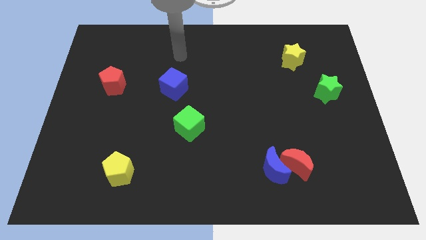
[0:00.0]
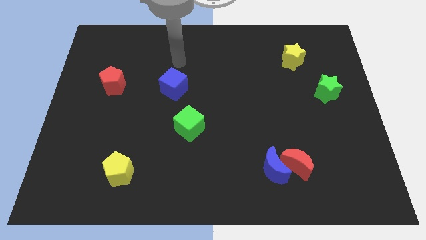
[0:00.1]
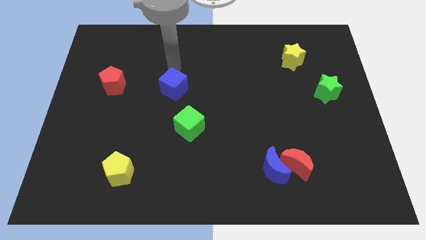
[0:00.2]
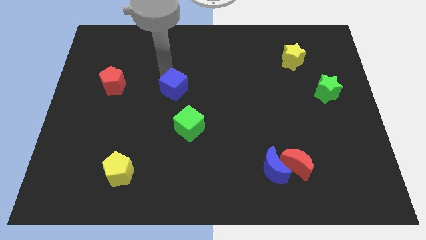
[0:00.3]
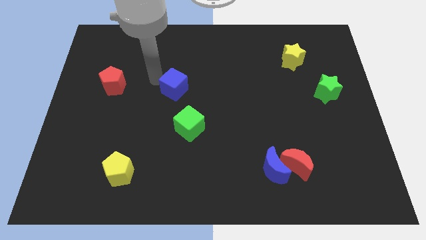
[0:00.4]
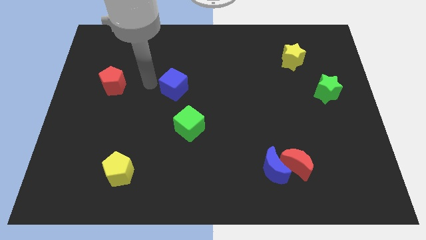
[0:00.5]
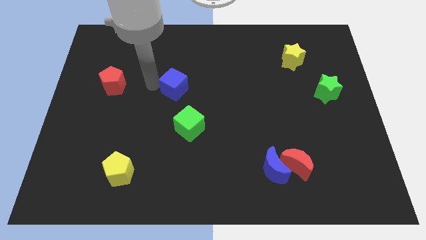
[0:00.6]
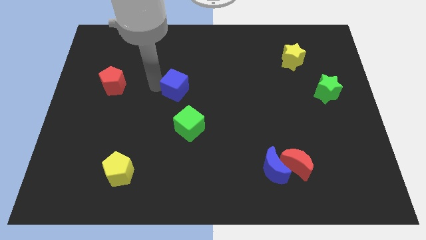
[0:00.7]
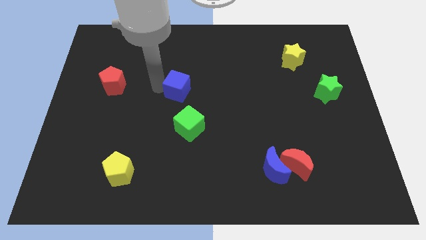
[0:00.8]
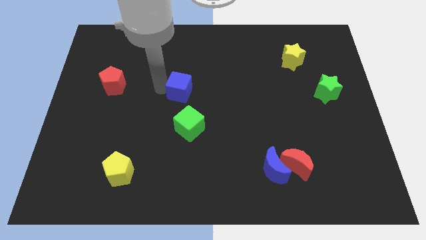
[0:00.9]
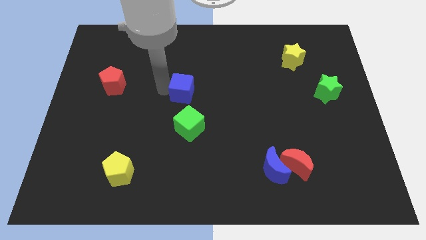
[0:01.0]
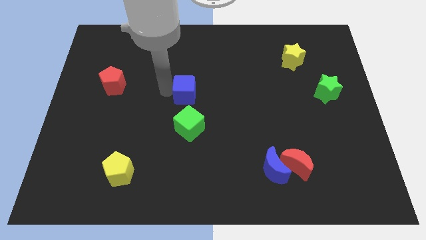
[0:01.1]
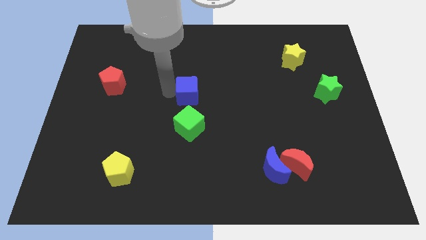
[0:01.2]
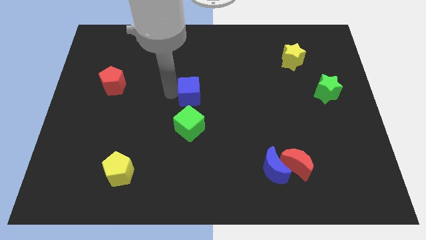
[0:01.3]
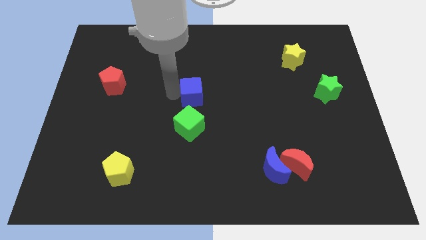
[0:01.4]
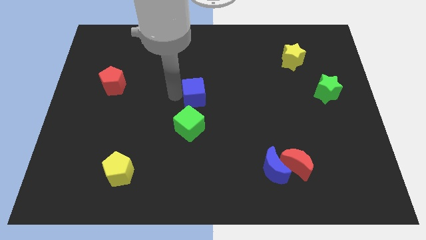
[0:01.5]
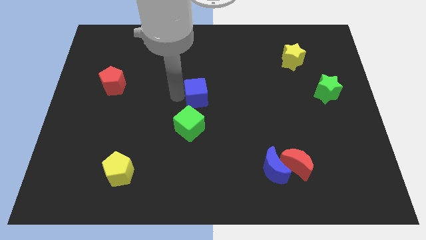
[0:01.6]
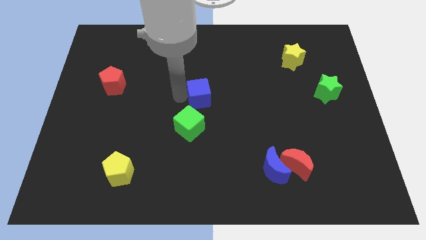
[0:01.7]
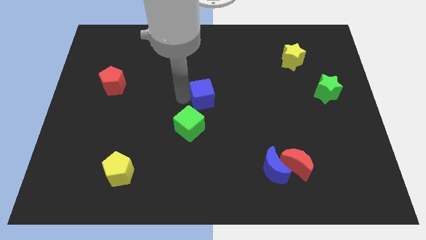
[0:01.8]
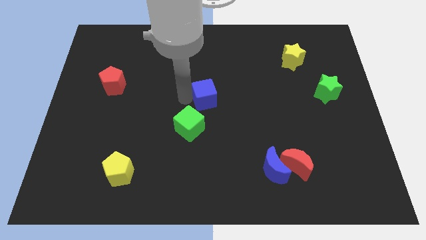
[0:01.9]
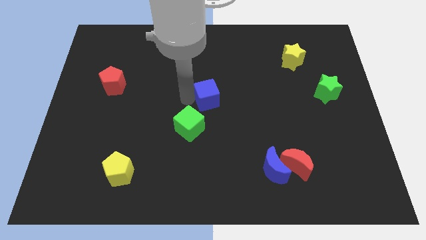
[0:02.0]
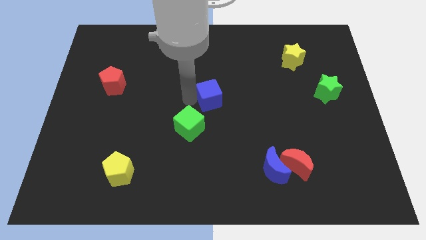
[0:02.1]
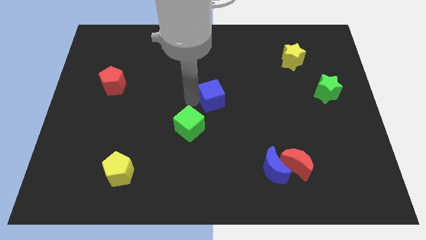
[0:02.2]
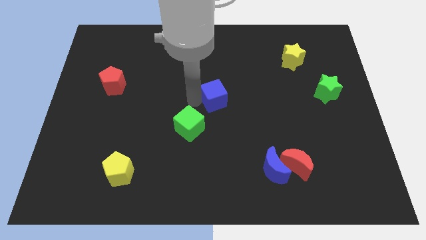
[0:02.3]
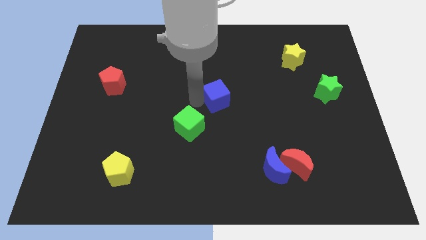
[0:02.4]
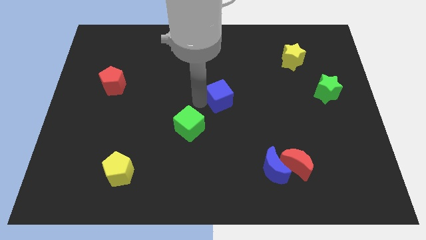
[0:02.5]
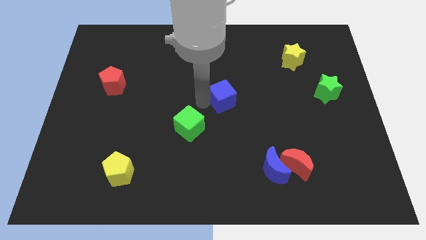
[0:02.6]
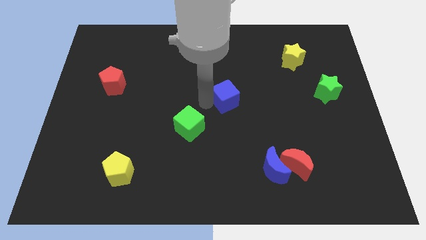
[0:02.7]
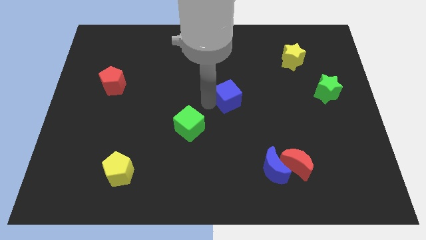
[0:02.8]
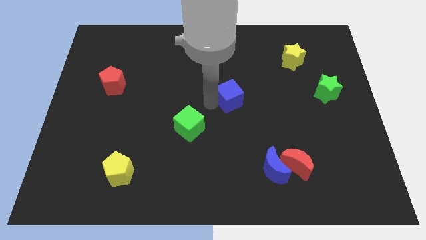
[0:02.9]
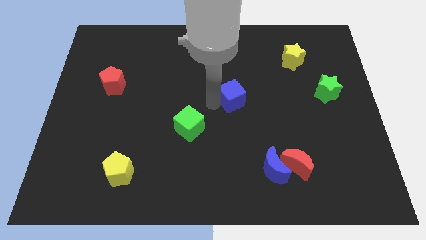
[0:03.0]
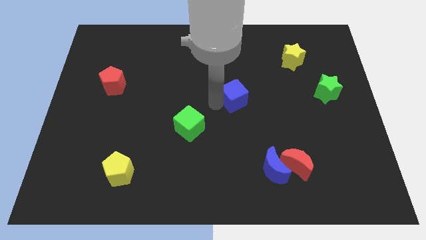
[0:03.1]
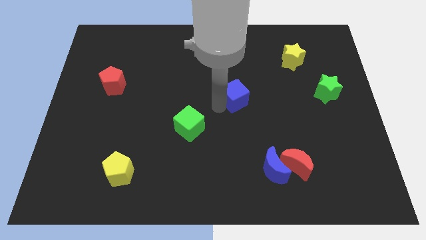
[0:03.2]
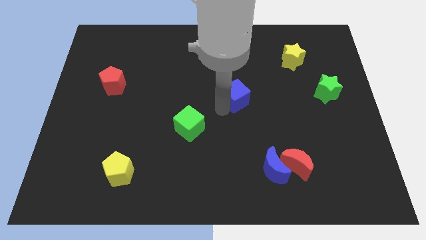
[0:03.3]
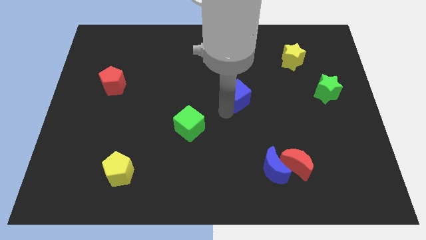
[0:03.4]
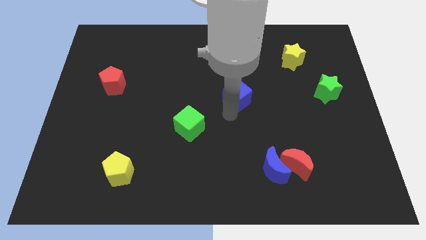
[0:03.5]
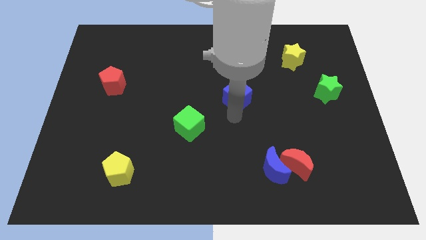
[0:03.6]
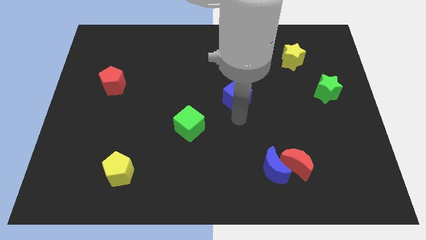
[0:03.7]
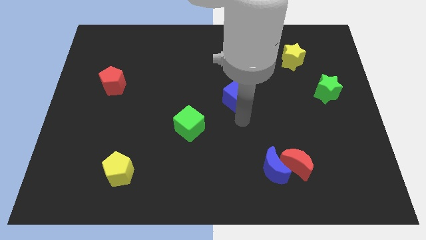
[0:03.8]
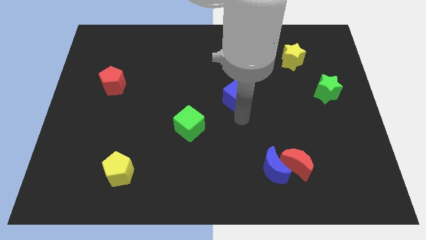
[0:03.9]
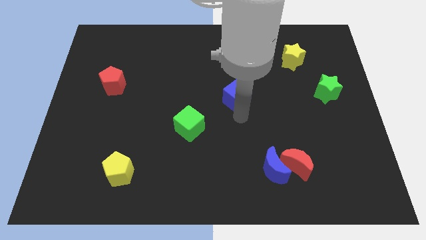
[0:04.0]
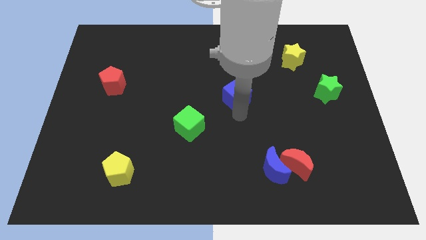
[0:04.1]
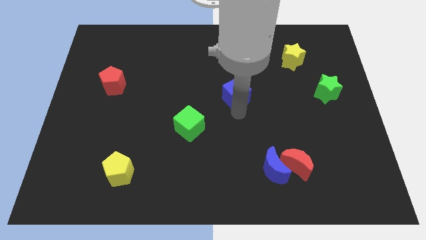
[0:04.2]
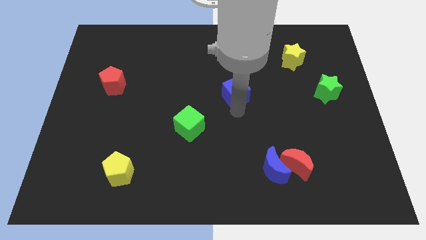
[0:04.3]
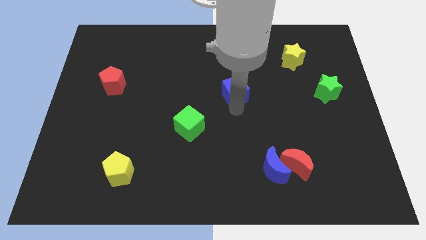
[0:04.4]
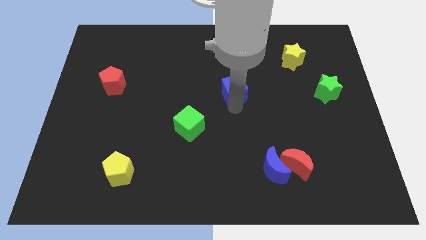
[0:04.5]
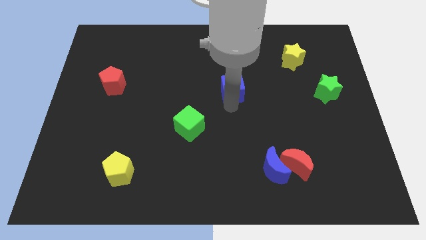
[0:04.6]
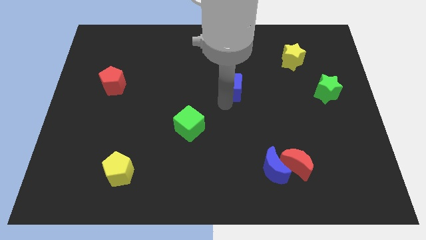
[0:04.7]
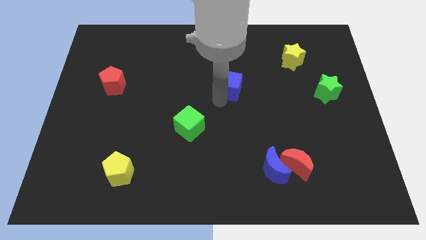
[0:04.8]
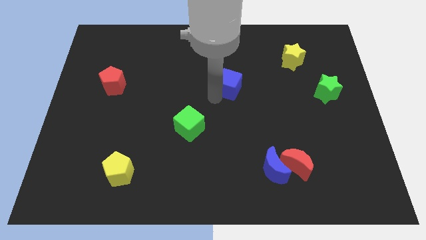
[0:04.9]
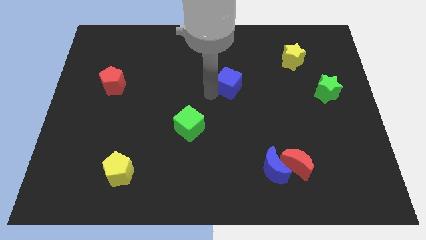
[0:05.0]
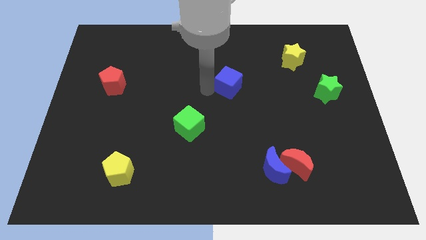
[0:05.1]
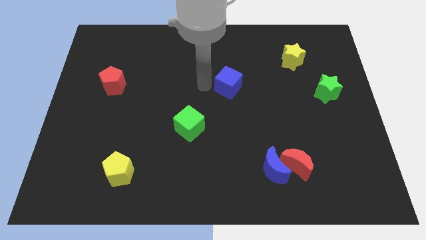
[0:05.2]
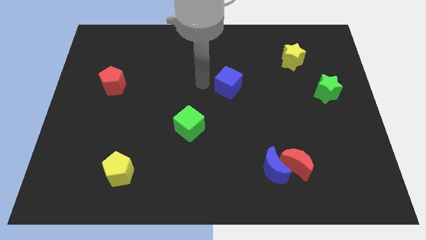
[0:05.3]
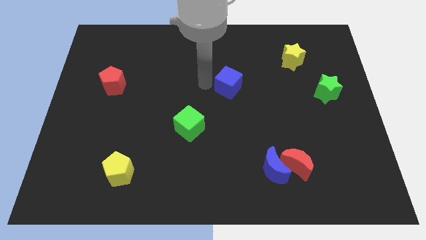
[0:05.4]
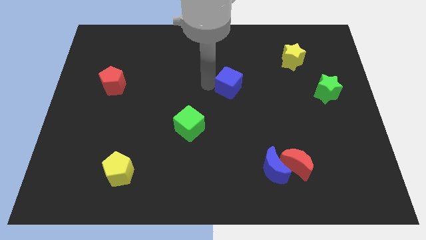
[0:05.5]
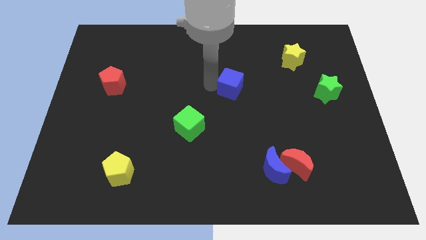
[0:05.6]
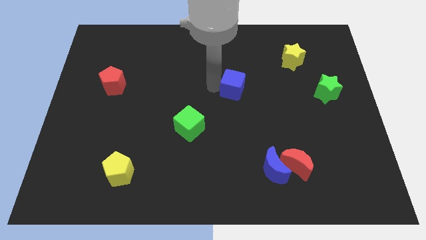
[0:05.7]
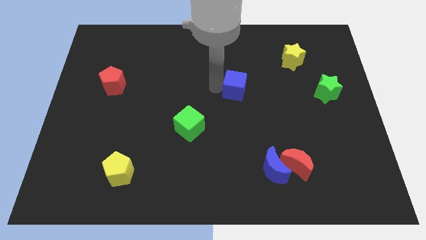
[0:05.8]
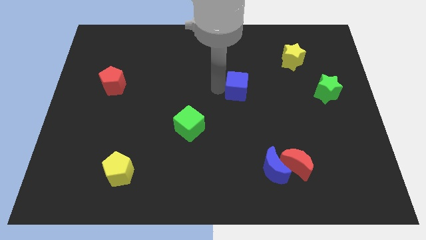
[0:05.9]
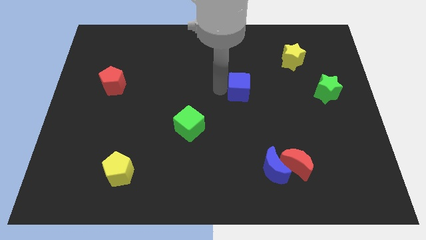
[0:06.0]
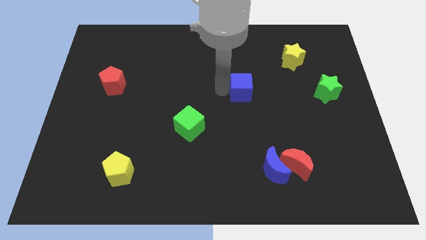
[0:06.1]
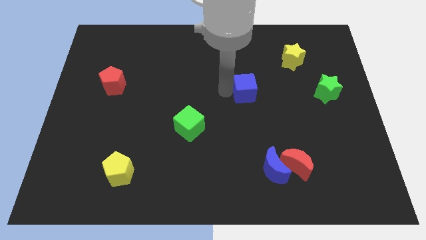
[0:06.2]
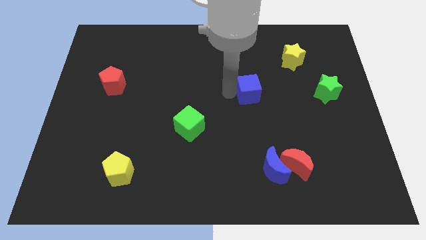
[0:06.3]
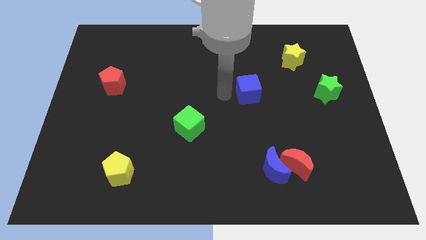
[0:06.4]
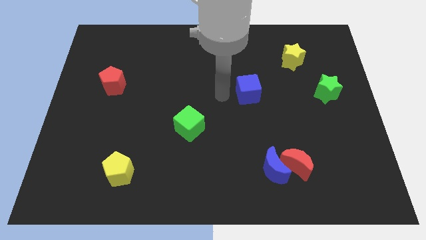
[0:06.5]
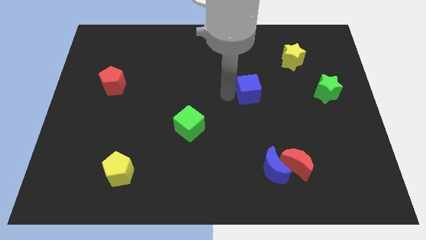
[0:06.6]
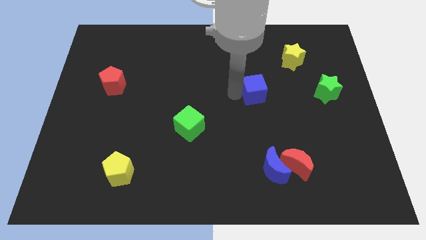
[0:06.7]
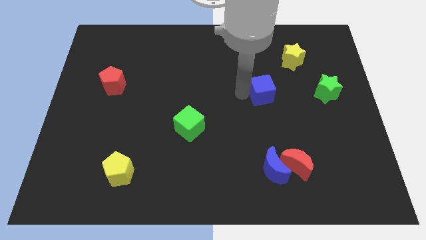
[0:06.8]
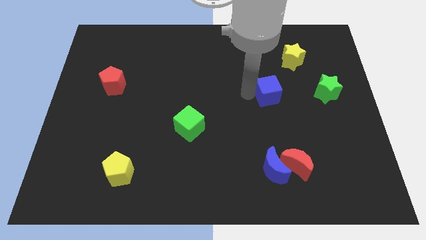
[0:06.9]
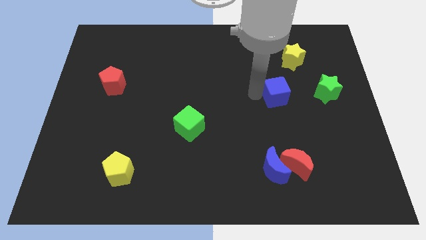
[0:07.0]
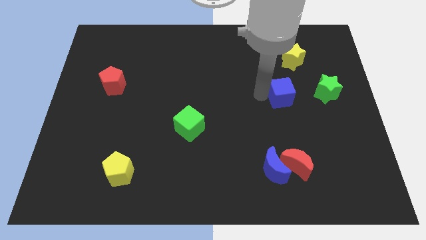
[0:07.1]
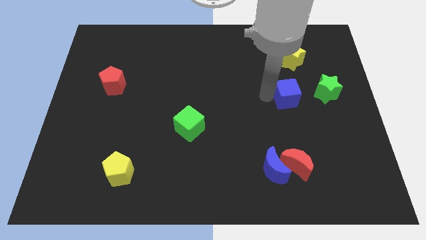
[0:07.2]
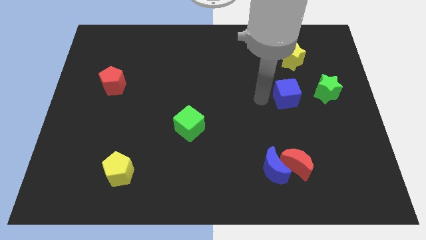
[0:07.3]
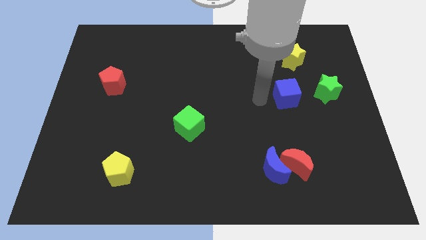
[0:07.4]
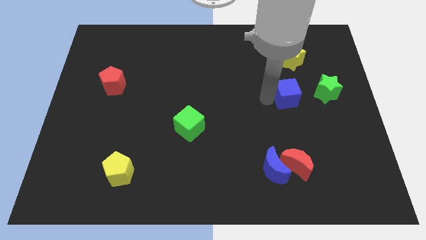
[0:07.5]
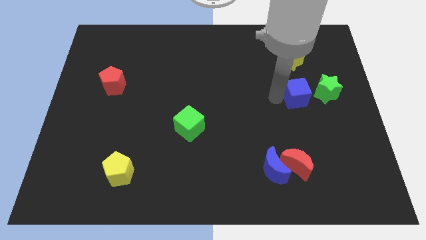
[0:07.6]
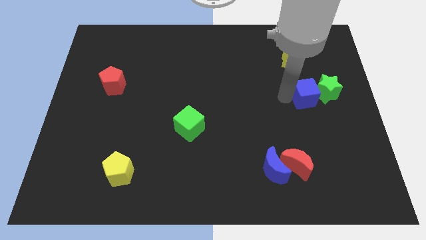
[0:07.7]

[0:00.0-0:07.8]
push the blue cube to the green star
